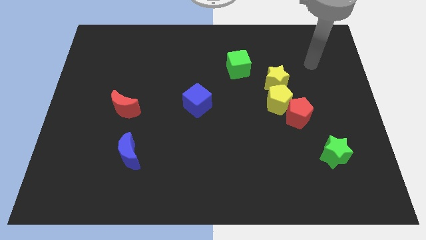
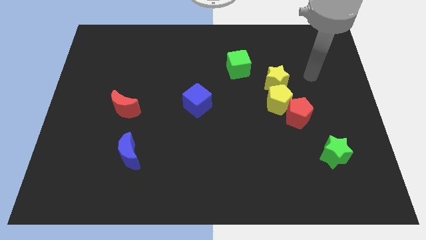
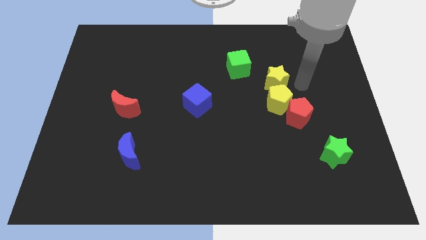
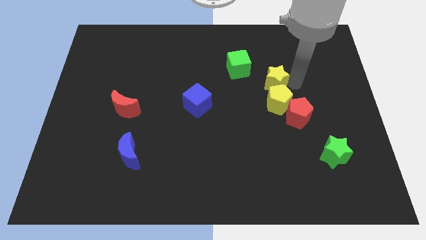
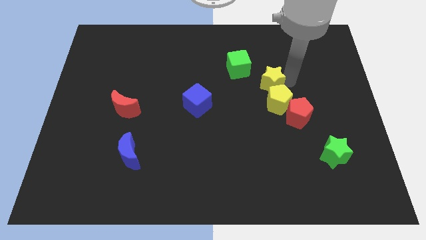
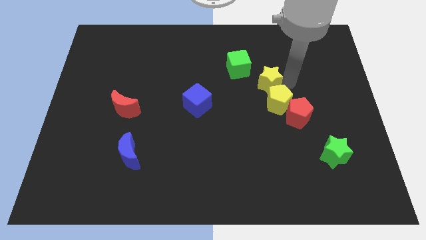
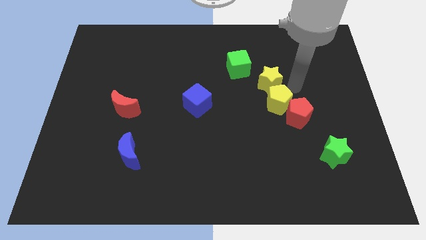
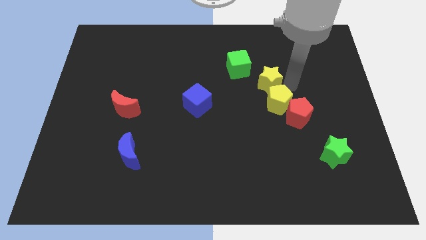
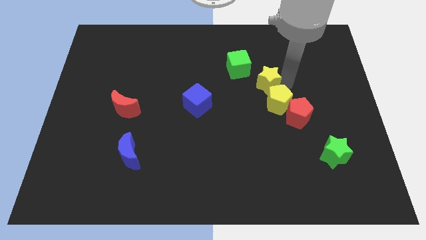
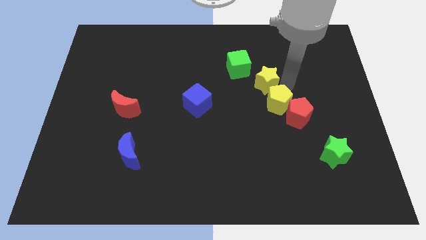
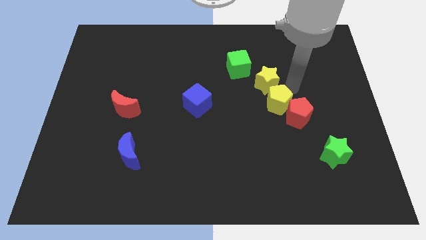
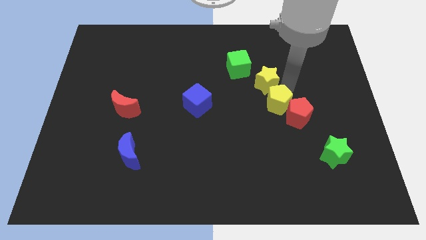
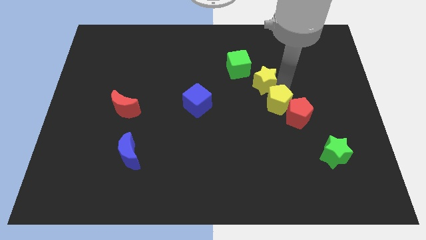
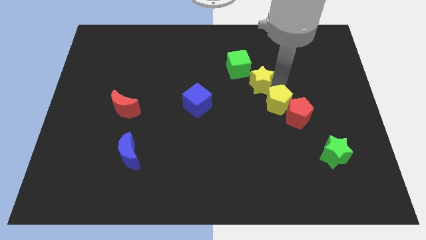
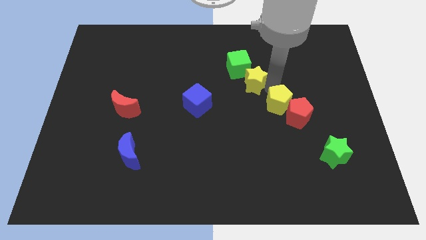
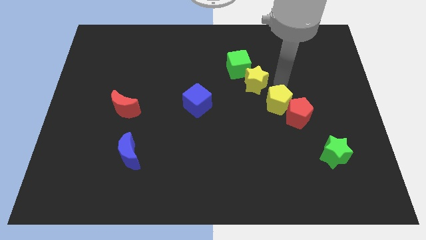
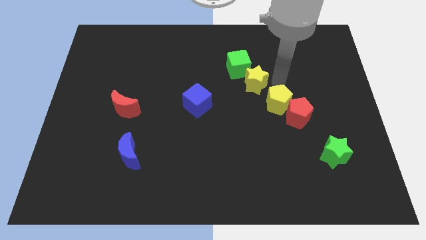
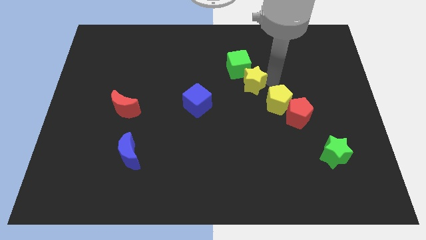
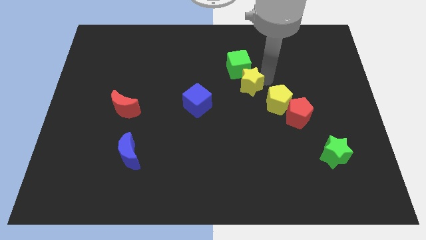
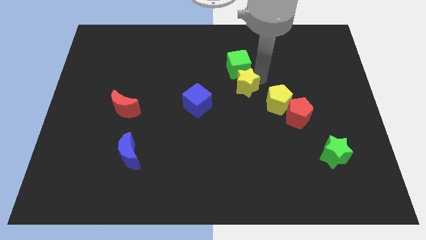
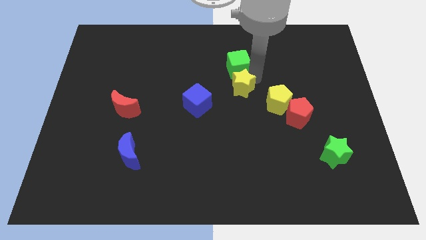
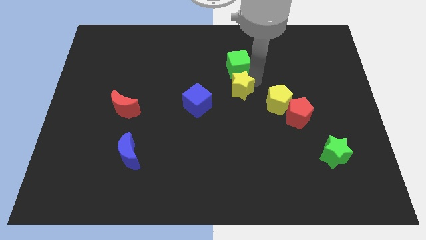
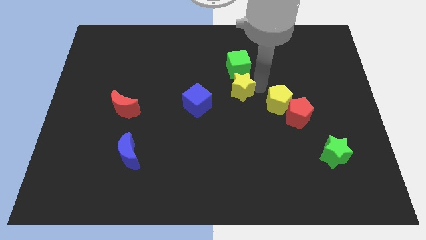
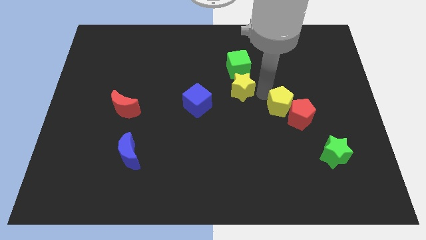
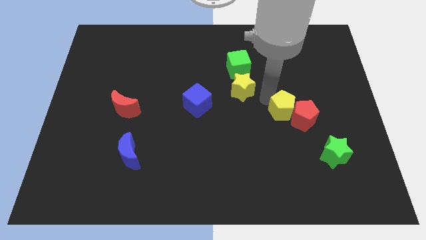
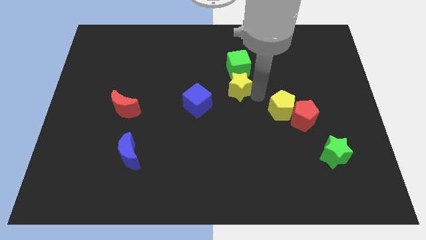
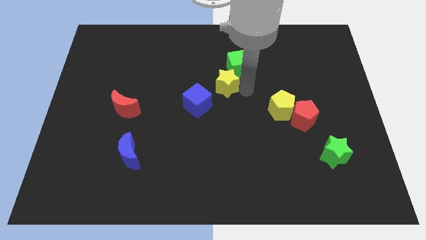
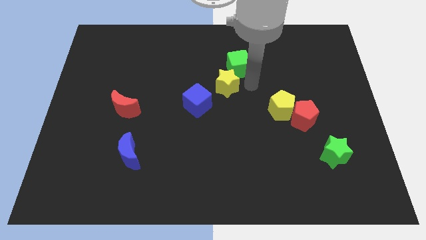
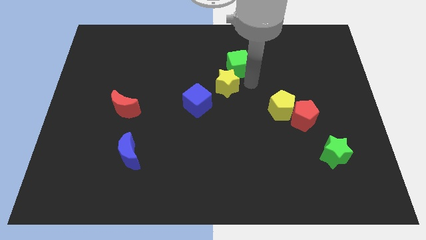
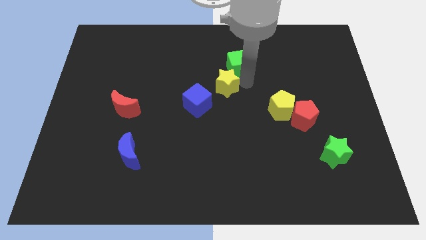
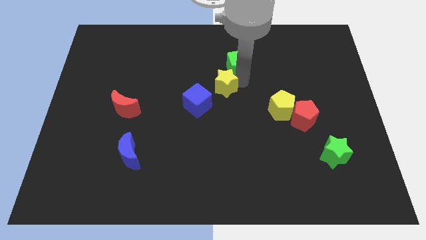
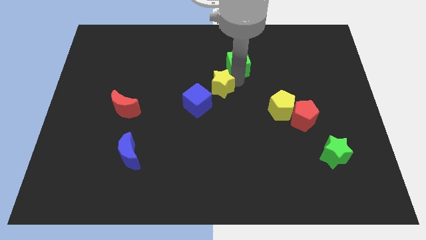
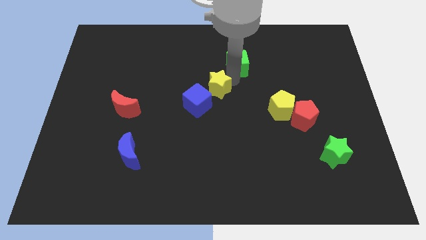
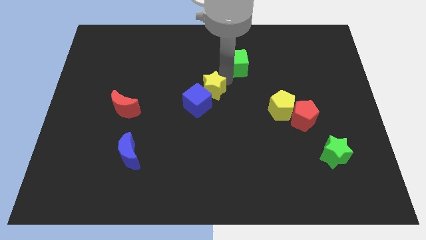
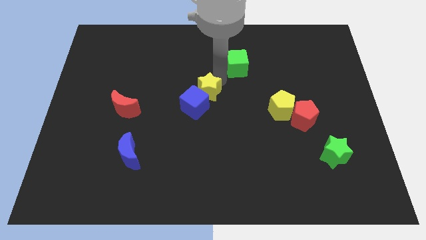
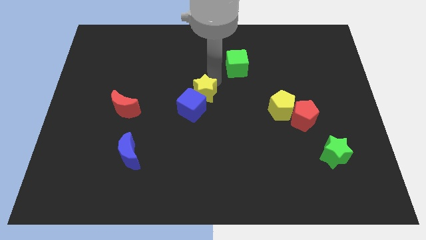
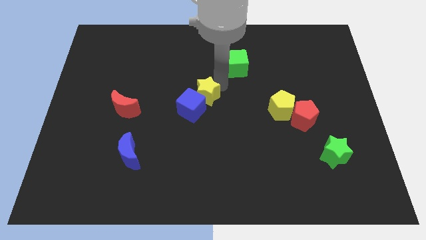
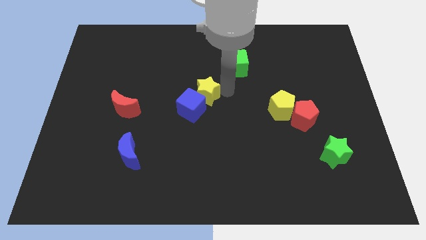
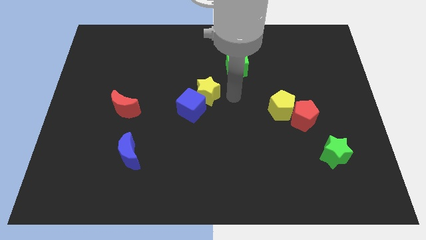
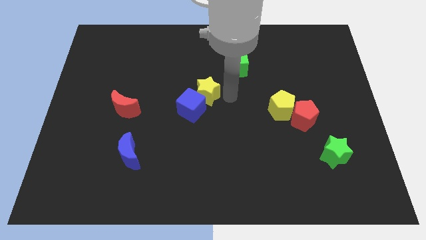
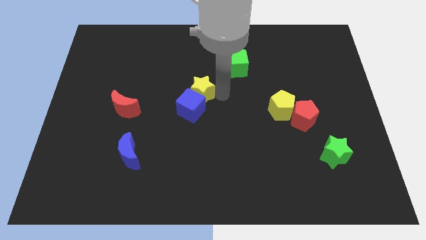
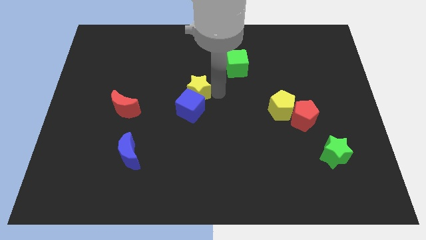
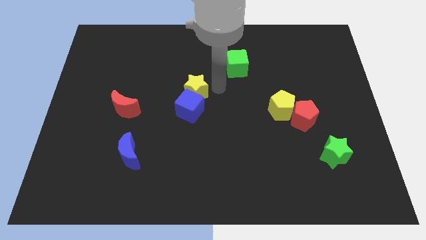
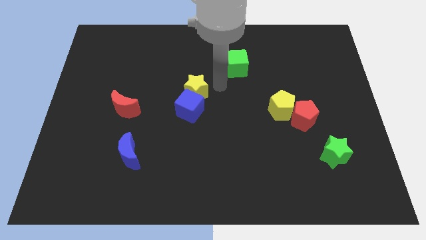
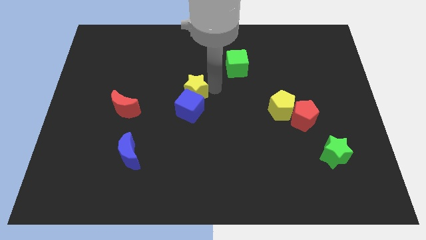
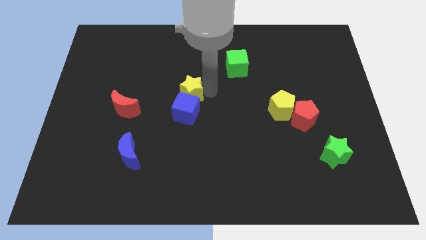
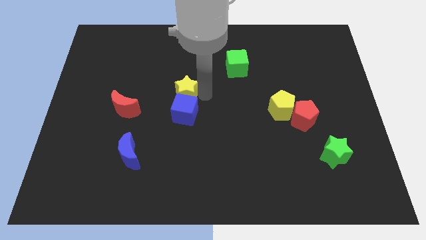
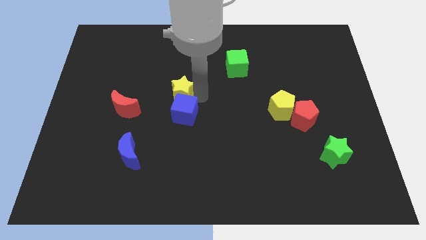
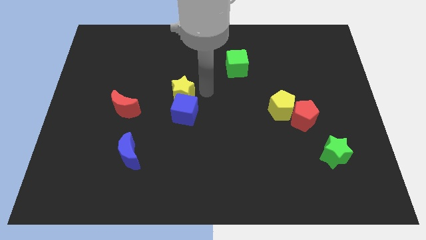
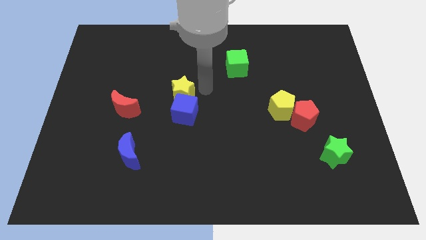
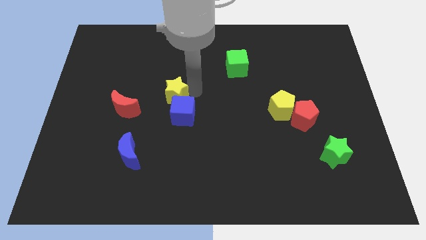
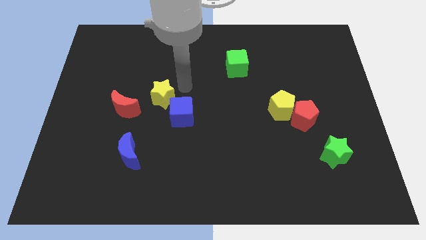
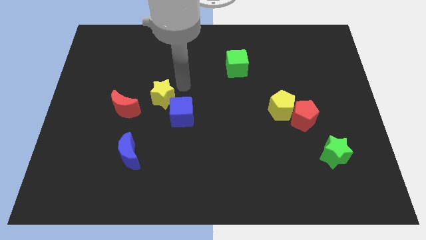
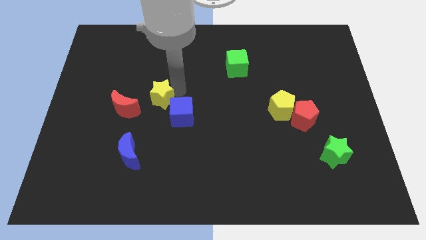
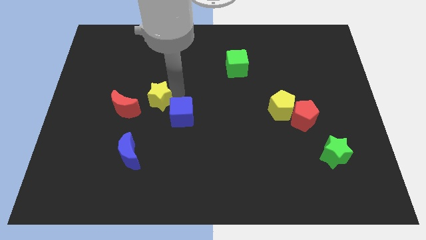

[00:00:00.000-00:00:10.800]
push the yellow star to the left side of the blue cube

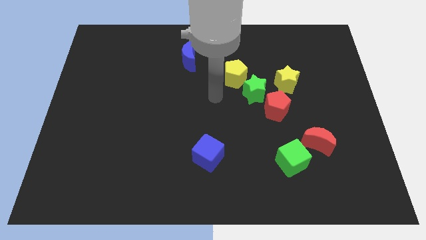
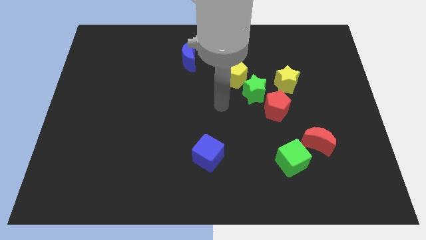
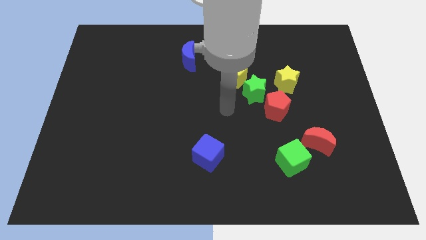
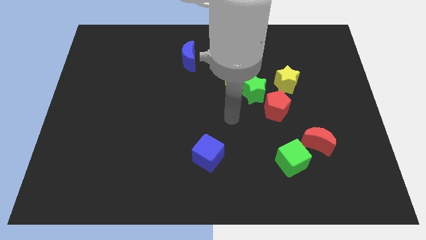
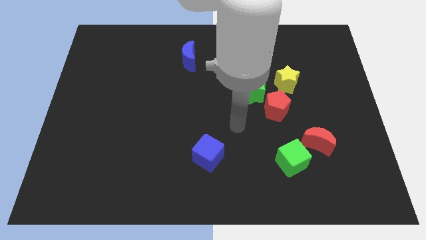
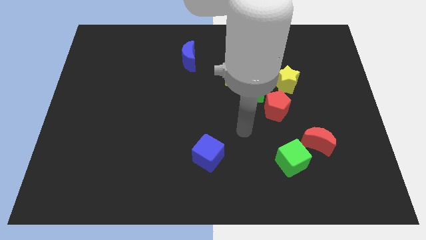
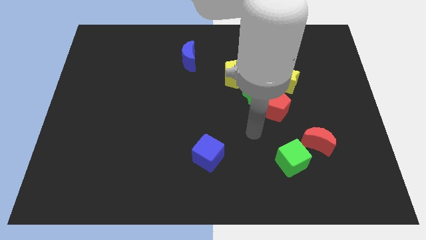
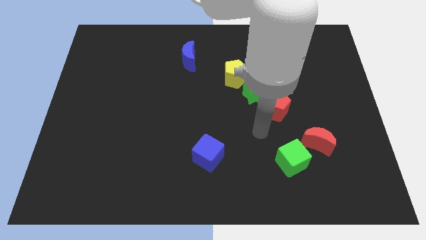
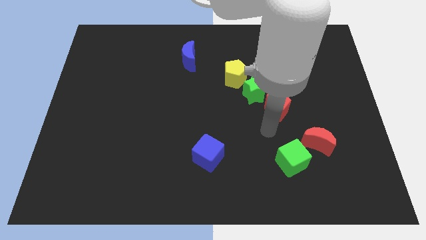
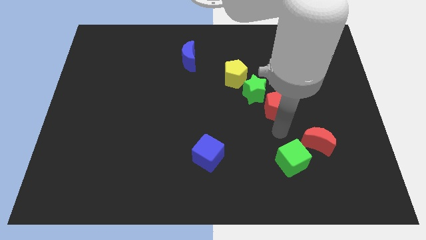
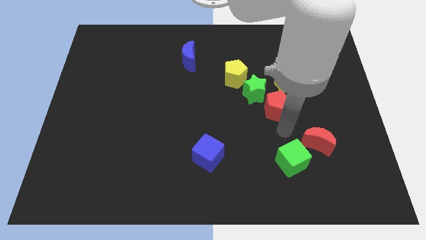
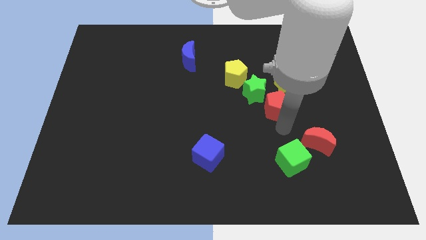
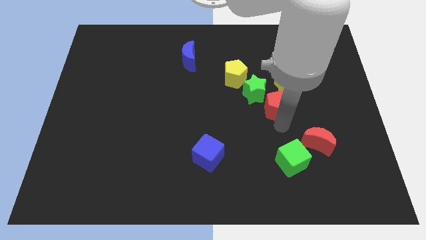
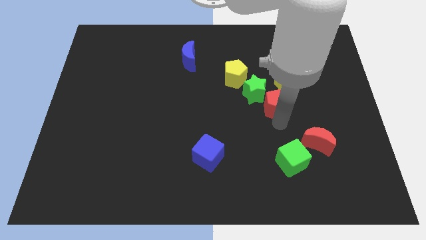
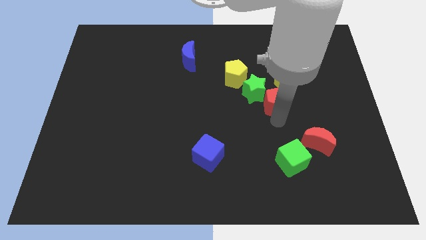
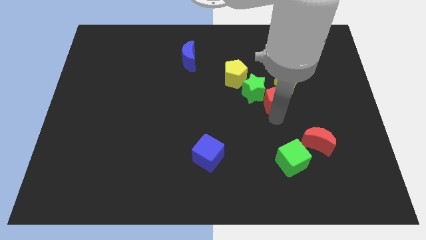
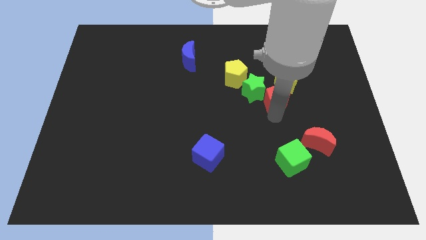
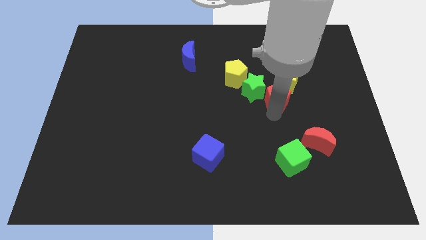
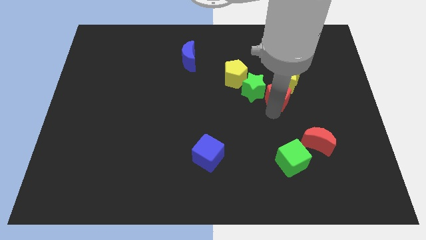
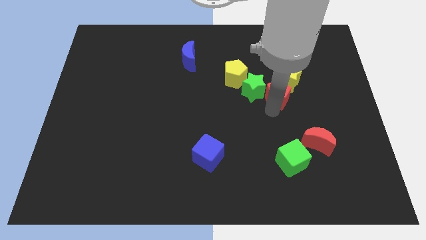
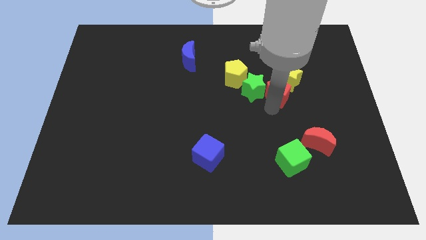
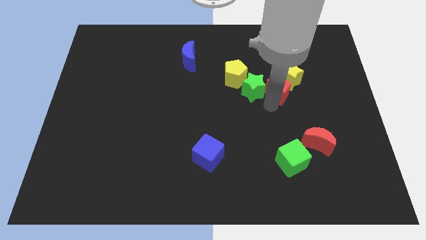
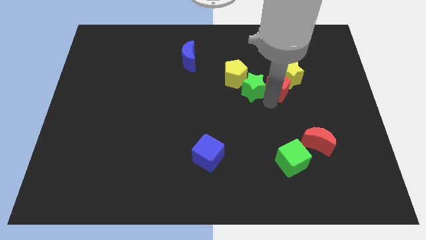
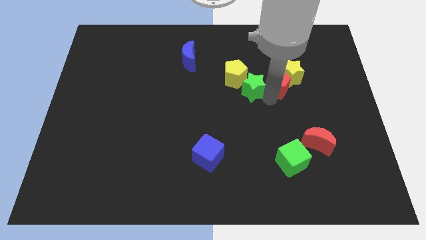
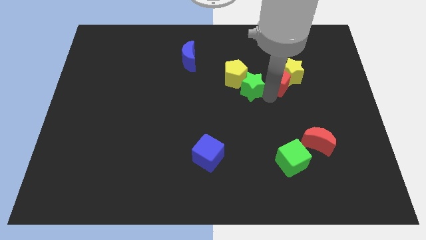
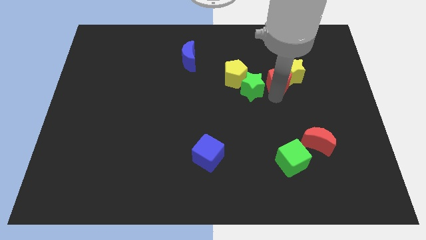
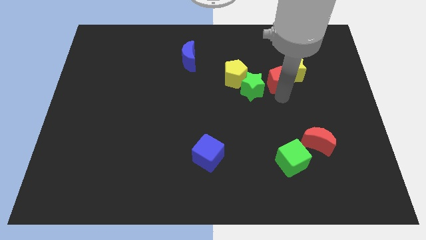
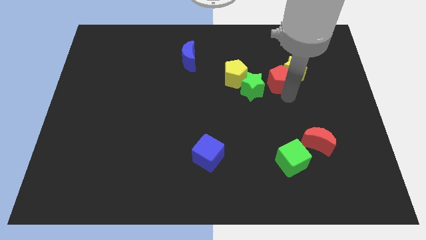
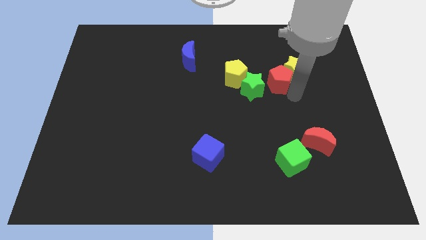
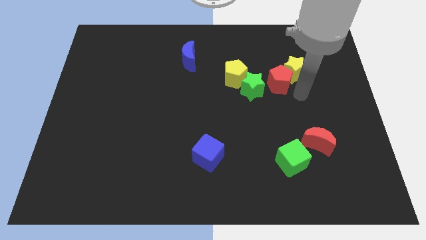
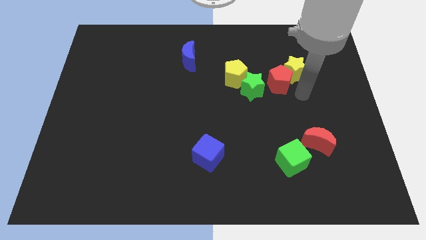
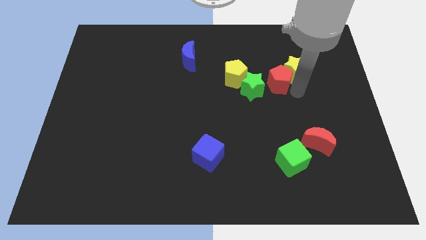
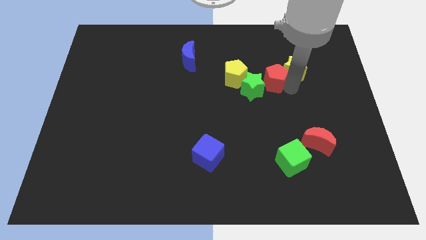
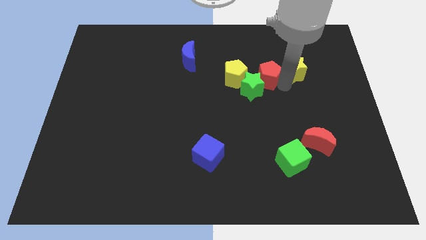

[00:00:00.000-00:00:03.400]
move the red pentagon to the top side of the green star
